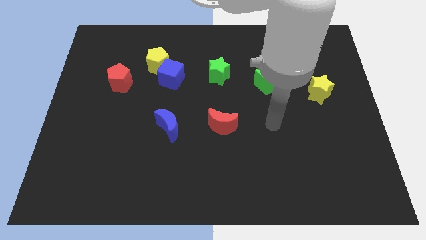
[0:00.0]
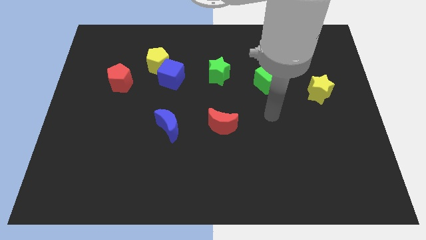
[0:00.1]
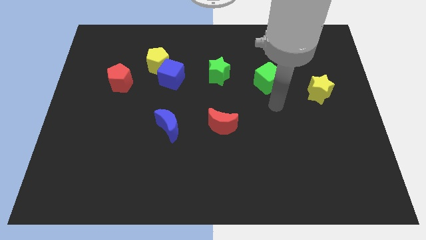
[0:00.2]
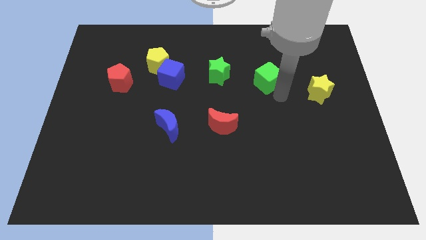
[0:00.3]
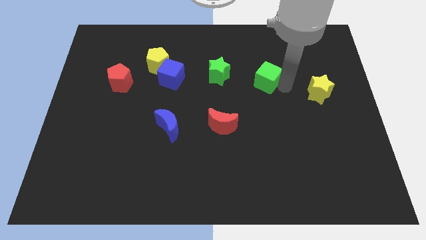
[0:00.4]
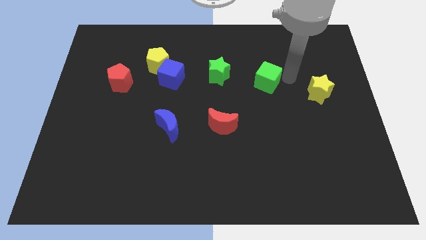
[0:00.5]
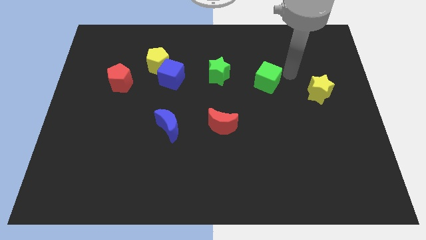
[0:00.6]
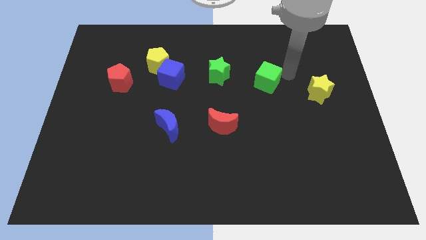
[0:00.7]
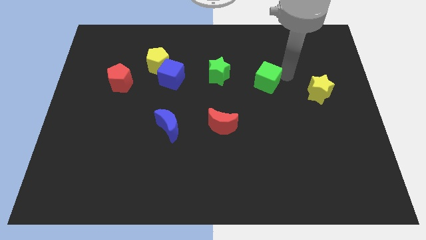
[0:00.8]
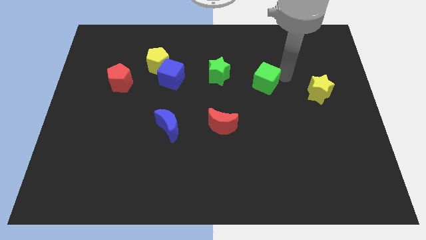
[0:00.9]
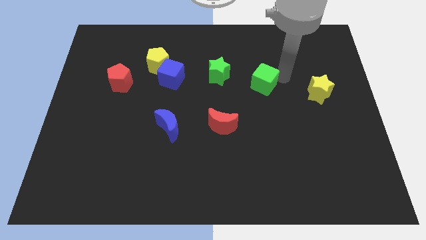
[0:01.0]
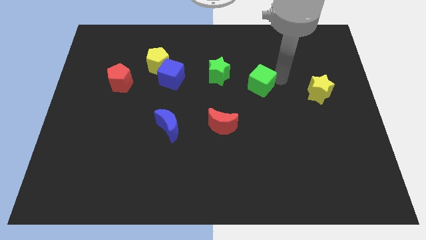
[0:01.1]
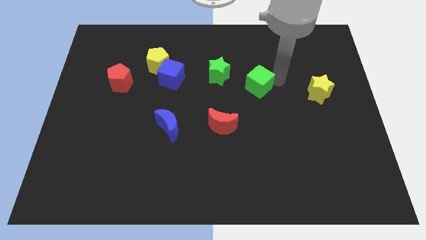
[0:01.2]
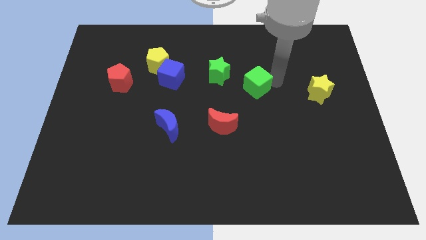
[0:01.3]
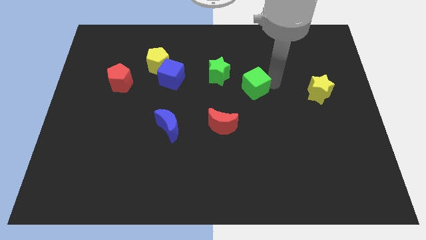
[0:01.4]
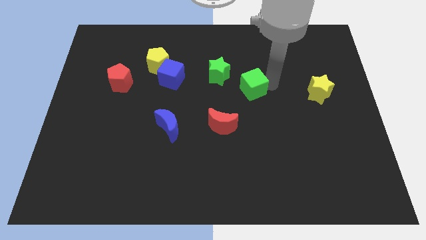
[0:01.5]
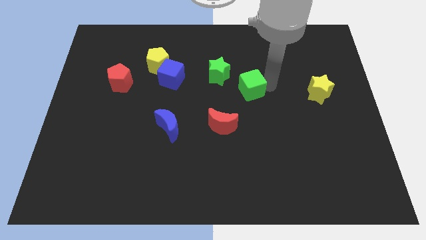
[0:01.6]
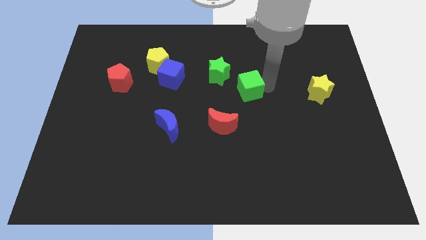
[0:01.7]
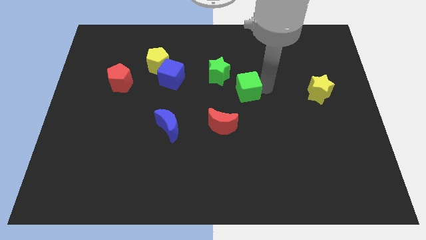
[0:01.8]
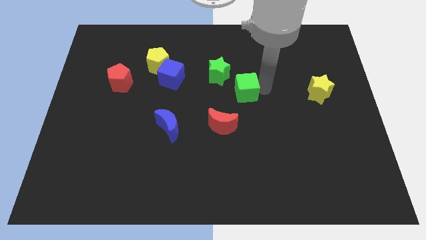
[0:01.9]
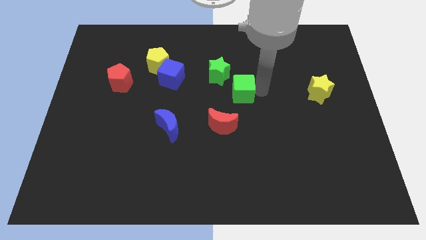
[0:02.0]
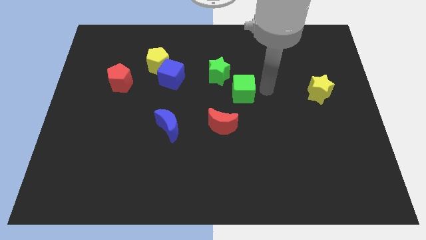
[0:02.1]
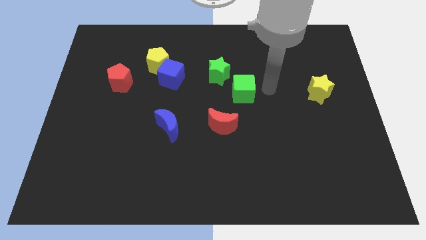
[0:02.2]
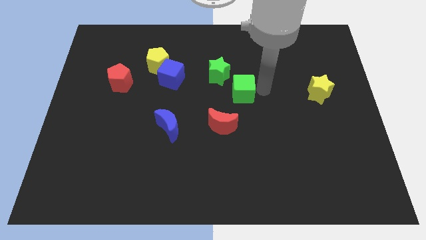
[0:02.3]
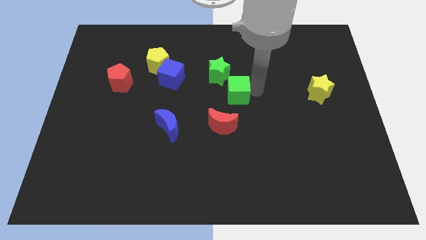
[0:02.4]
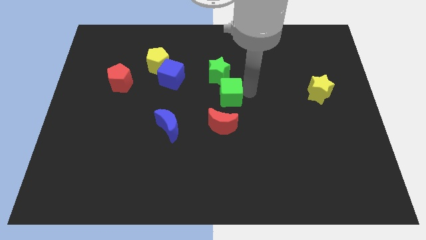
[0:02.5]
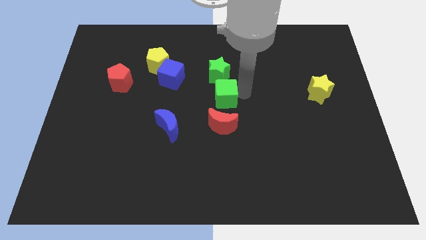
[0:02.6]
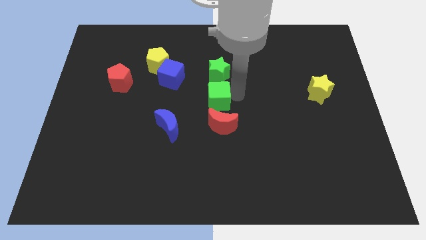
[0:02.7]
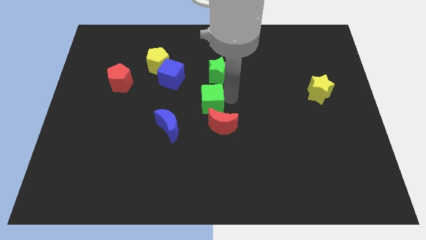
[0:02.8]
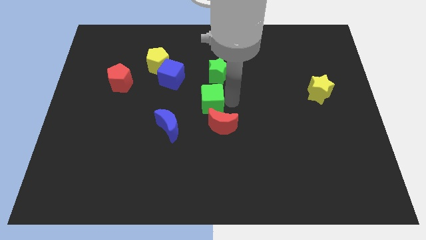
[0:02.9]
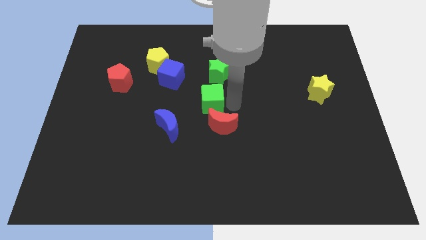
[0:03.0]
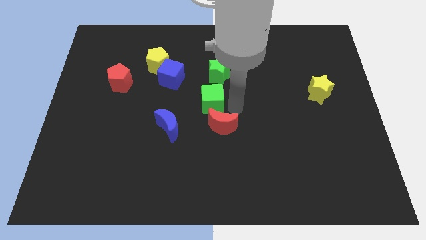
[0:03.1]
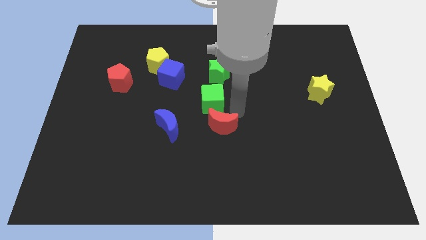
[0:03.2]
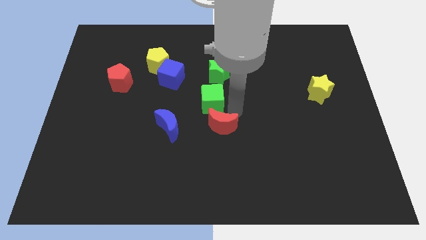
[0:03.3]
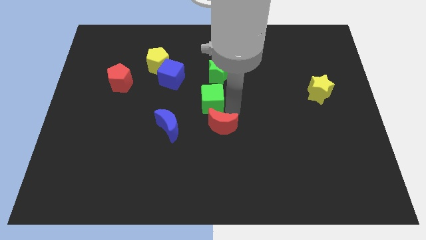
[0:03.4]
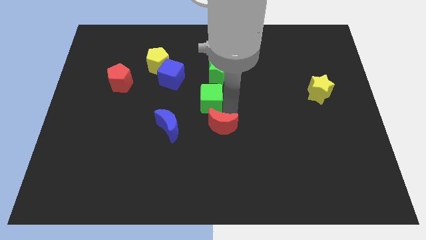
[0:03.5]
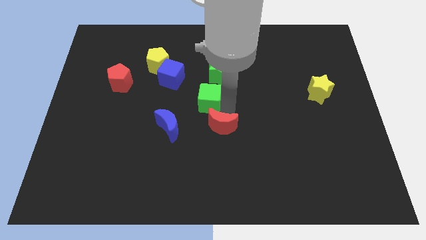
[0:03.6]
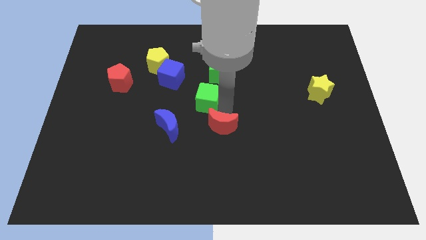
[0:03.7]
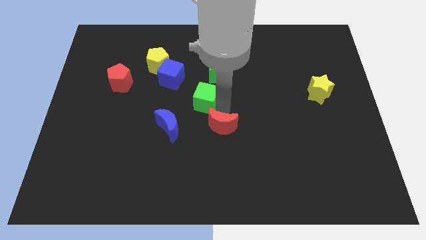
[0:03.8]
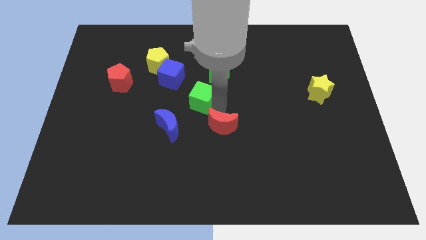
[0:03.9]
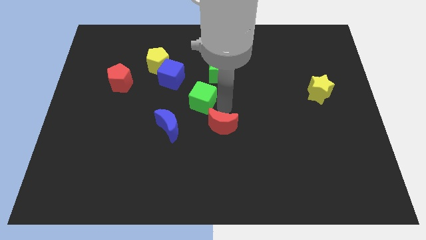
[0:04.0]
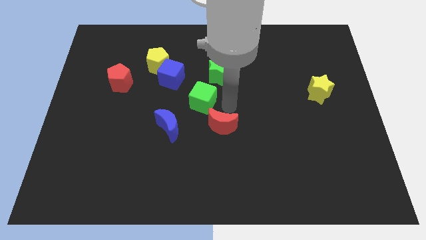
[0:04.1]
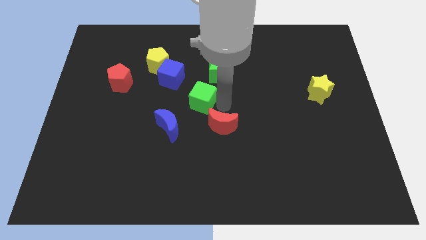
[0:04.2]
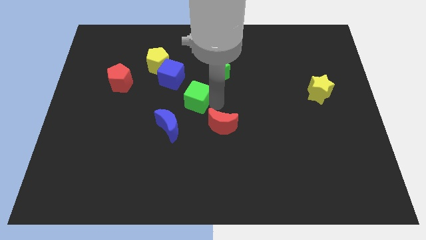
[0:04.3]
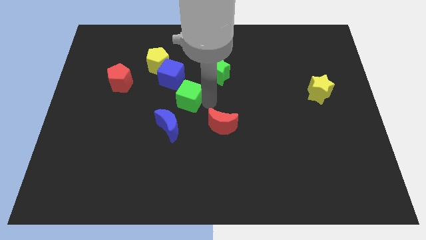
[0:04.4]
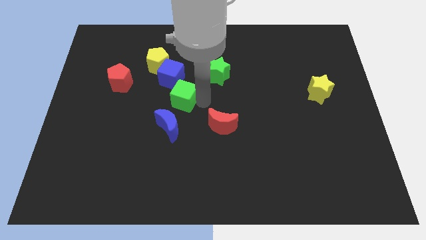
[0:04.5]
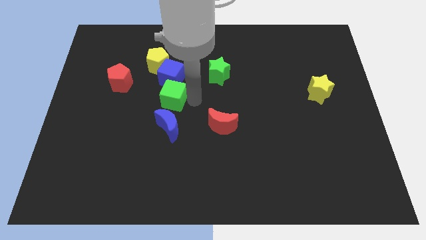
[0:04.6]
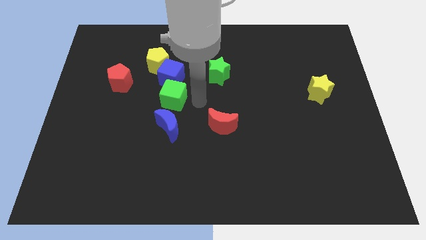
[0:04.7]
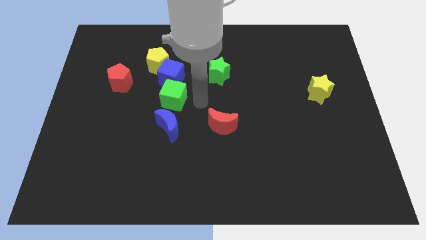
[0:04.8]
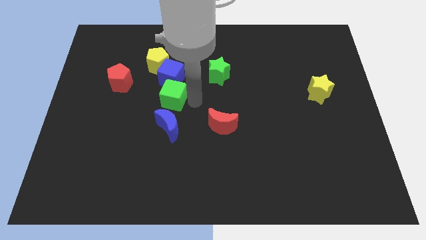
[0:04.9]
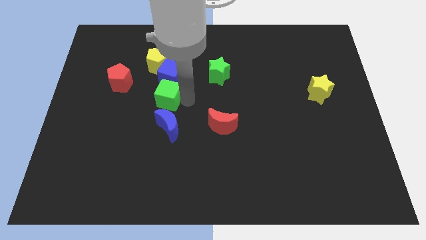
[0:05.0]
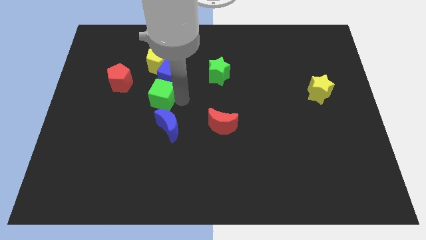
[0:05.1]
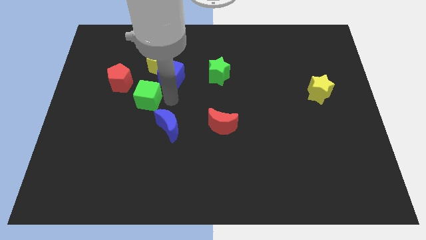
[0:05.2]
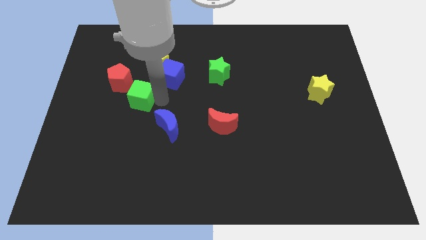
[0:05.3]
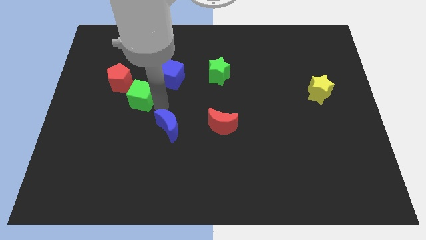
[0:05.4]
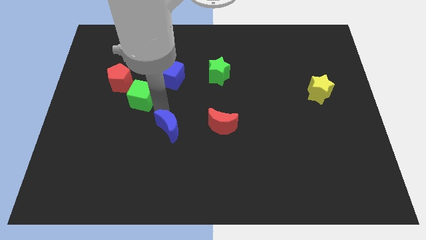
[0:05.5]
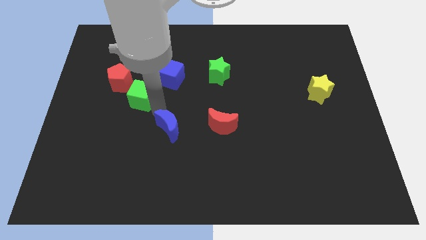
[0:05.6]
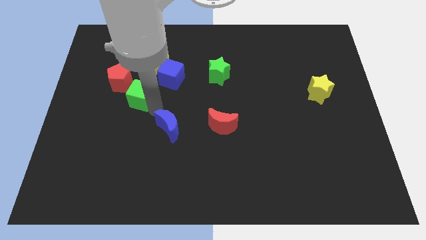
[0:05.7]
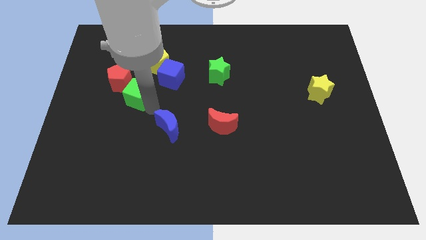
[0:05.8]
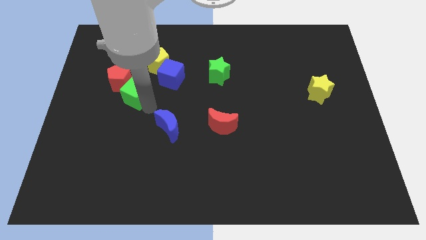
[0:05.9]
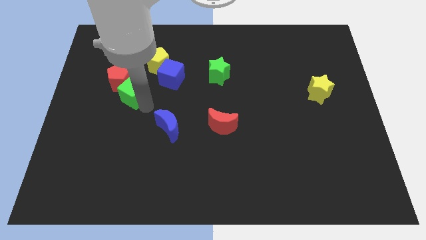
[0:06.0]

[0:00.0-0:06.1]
put the green cube to the red pentagon

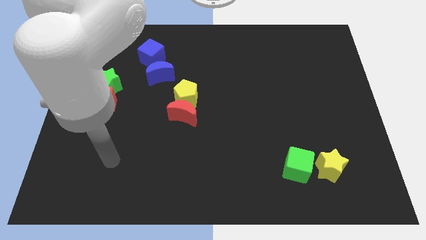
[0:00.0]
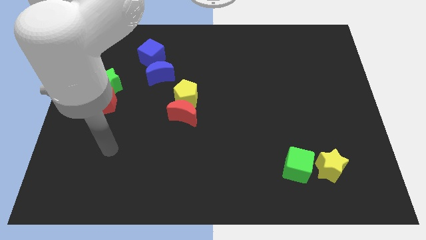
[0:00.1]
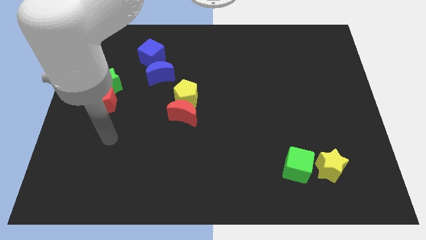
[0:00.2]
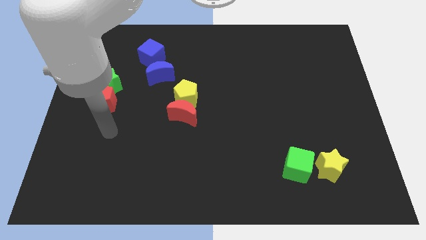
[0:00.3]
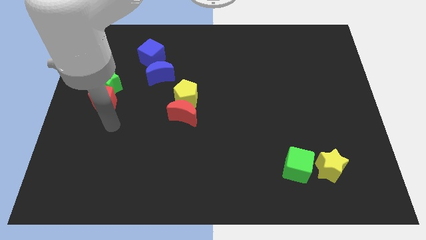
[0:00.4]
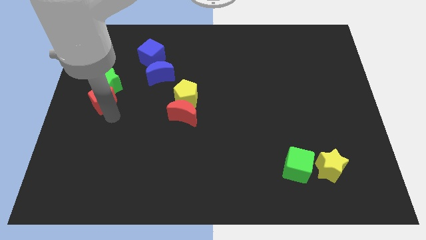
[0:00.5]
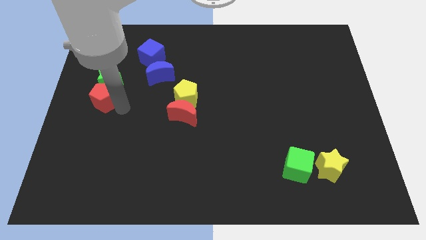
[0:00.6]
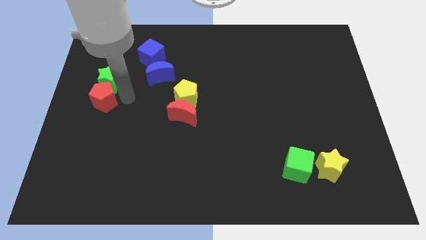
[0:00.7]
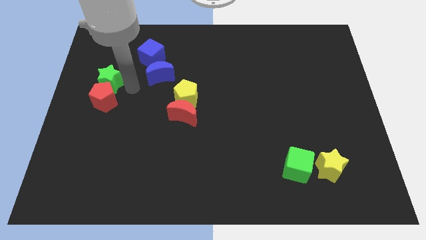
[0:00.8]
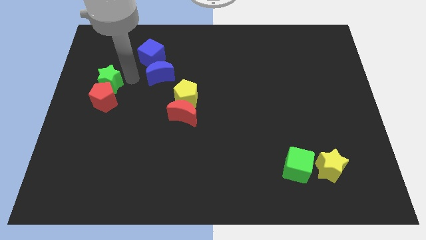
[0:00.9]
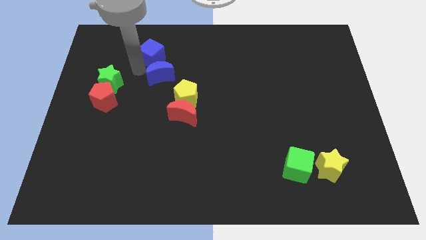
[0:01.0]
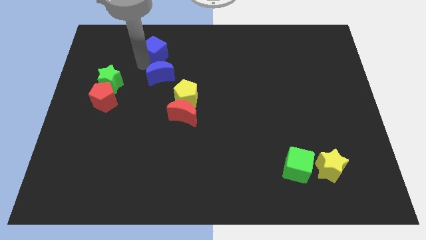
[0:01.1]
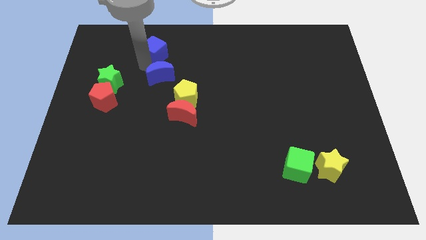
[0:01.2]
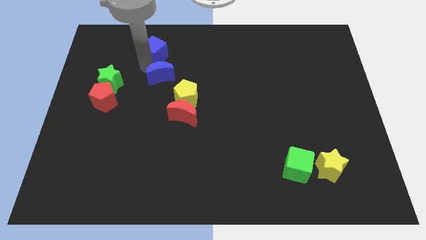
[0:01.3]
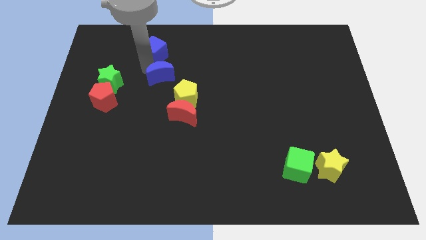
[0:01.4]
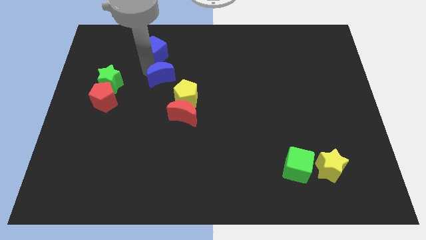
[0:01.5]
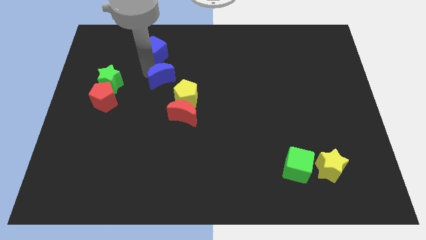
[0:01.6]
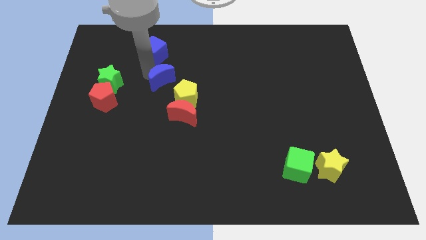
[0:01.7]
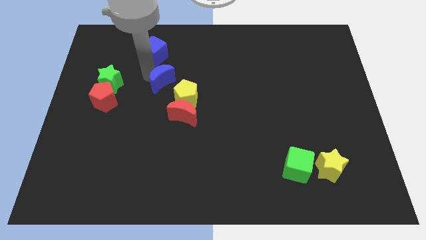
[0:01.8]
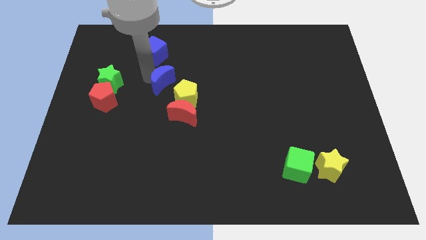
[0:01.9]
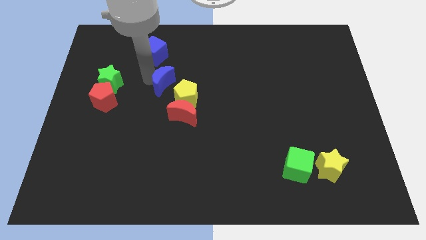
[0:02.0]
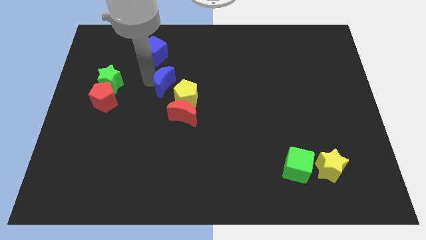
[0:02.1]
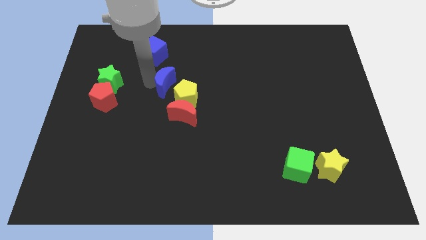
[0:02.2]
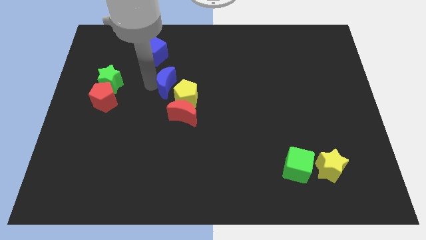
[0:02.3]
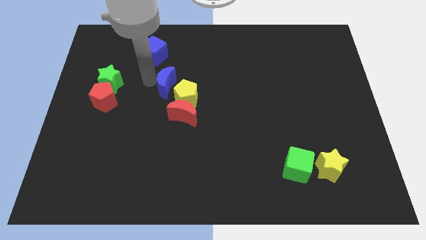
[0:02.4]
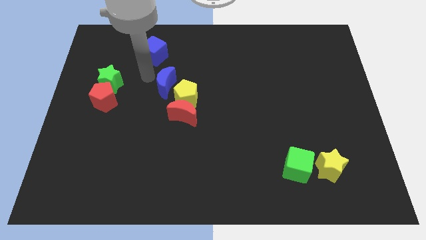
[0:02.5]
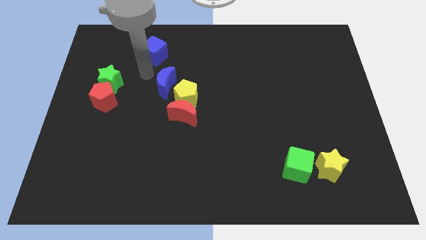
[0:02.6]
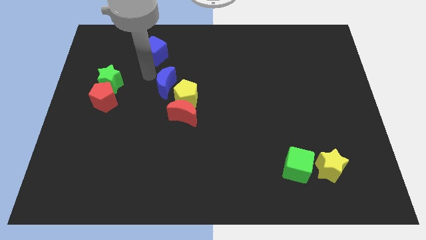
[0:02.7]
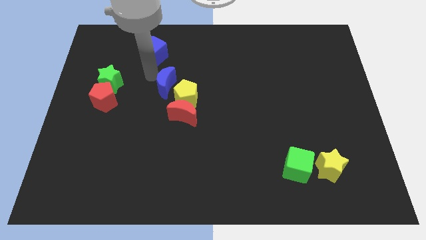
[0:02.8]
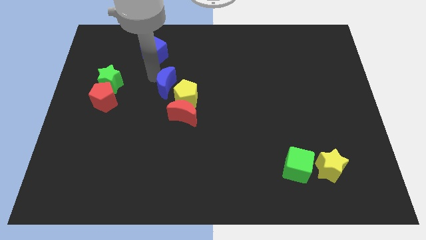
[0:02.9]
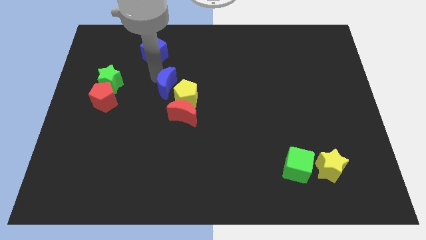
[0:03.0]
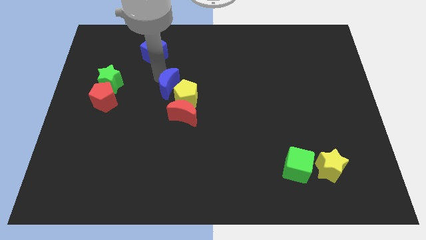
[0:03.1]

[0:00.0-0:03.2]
slide the blue moon close to the yellow pentagon
